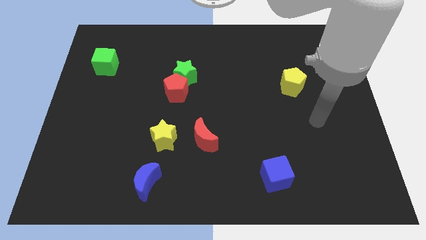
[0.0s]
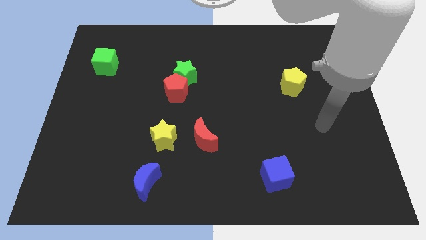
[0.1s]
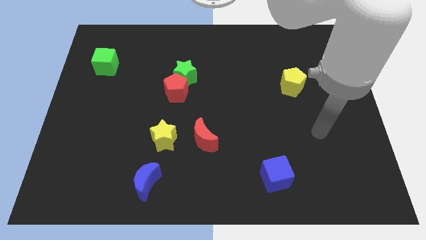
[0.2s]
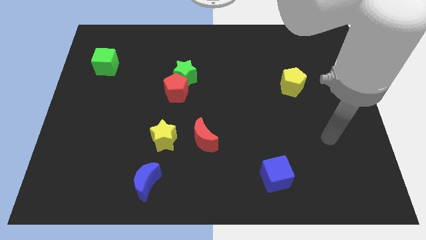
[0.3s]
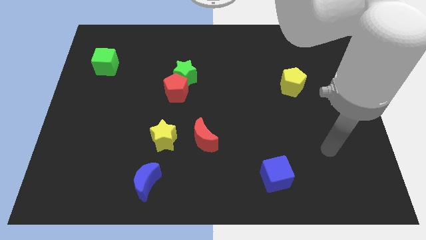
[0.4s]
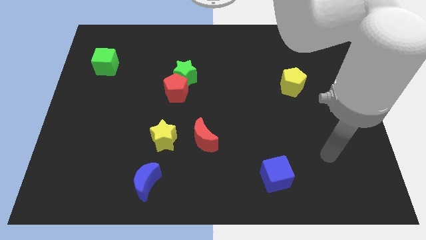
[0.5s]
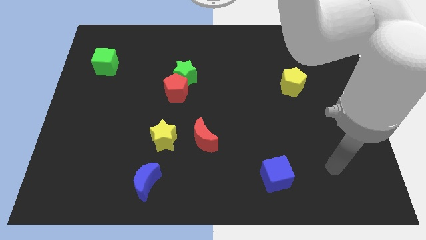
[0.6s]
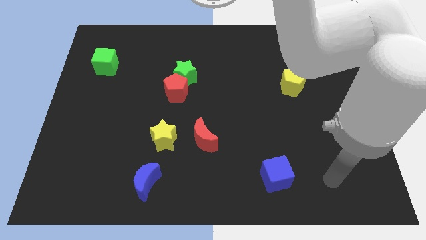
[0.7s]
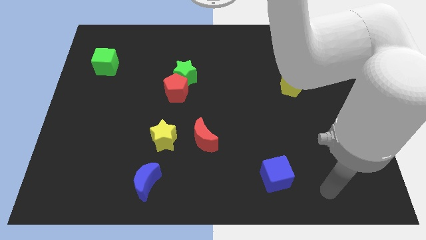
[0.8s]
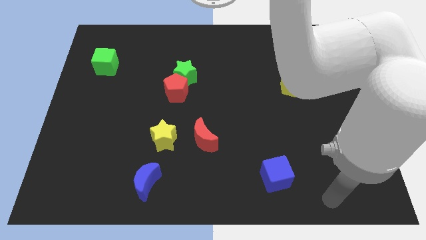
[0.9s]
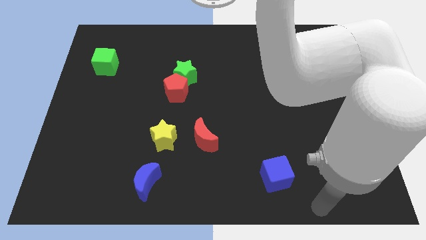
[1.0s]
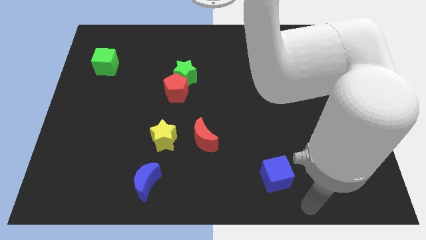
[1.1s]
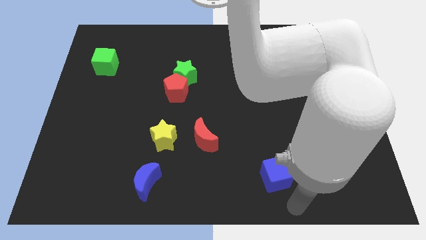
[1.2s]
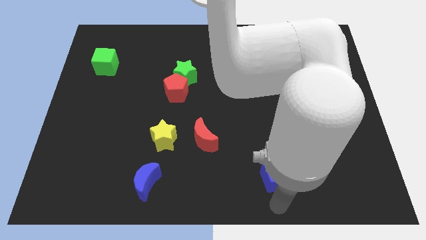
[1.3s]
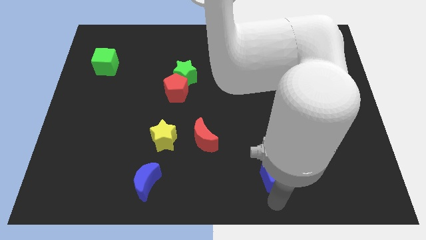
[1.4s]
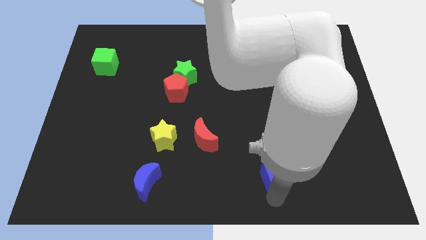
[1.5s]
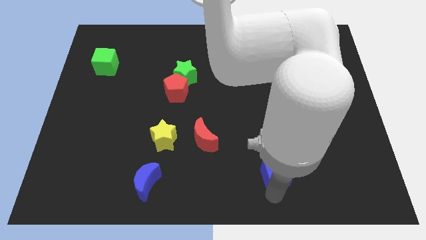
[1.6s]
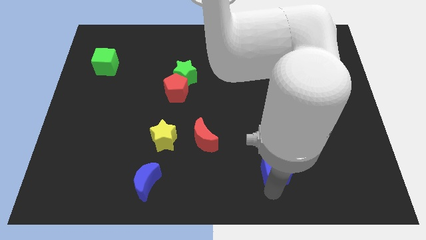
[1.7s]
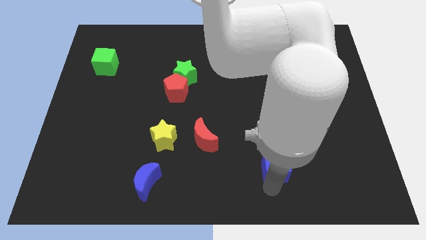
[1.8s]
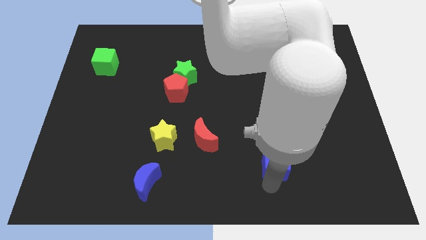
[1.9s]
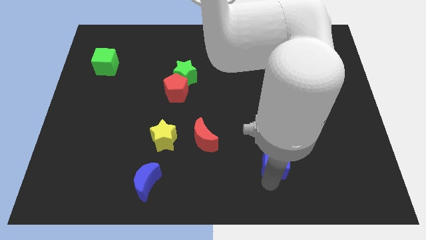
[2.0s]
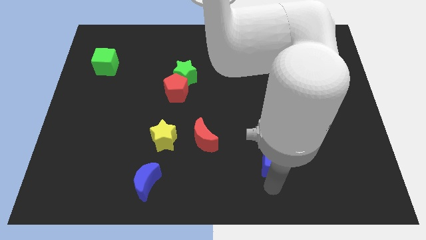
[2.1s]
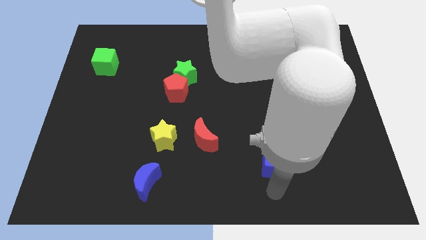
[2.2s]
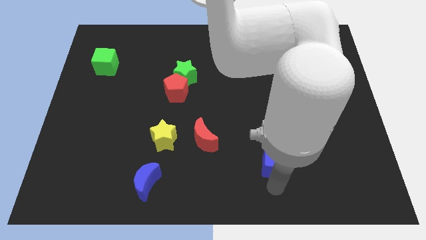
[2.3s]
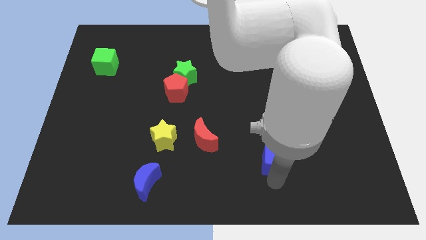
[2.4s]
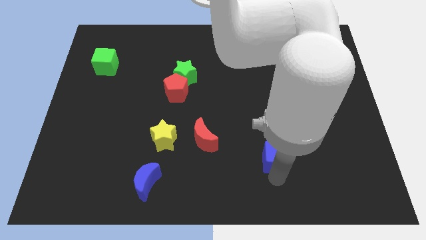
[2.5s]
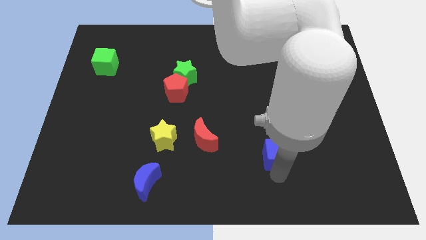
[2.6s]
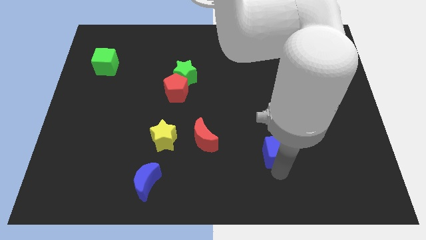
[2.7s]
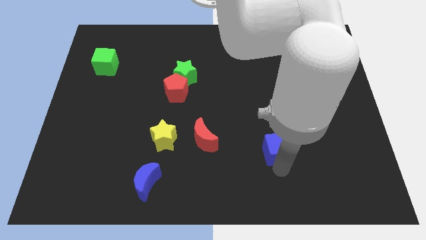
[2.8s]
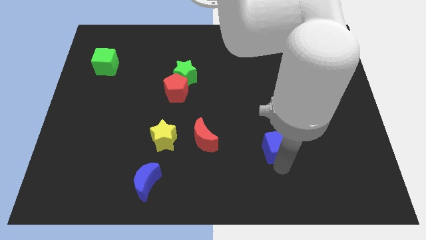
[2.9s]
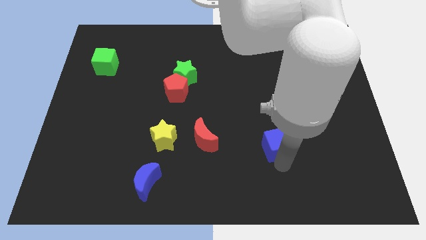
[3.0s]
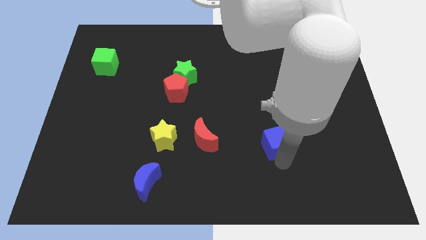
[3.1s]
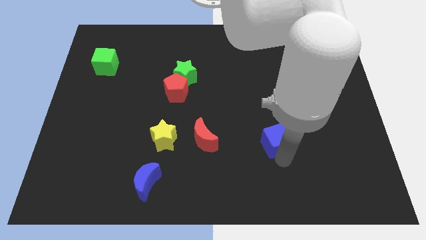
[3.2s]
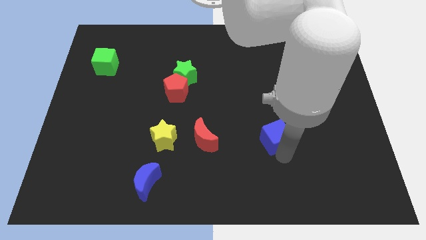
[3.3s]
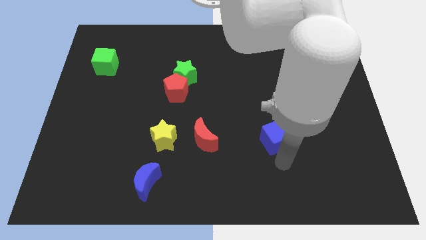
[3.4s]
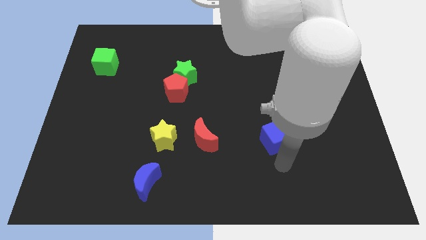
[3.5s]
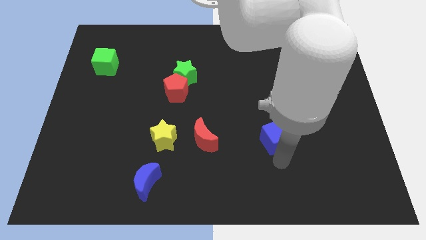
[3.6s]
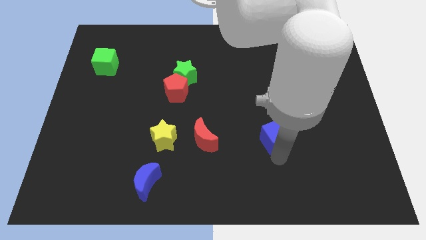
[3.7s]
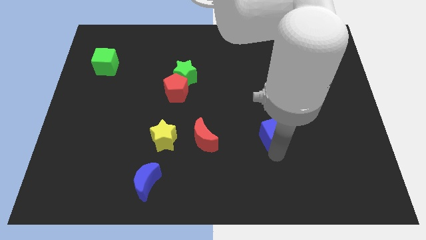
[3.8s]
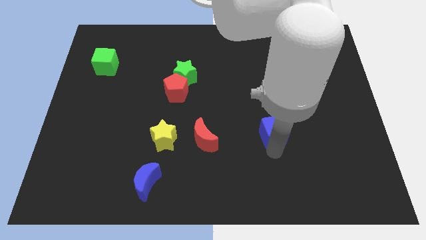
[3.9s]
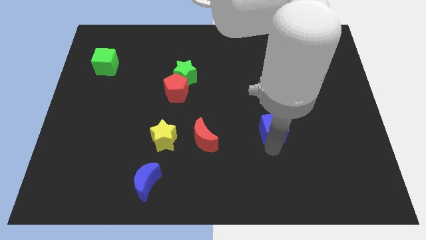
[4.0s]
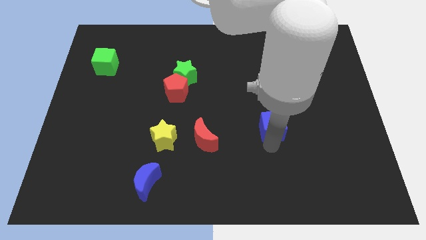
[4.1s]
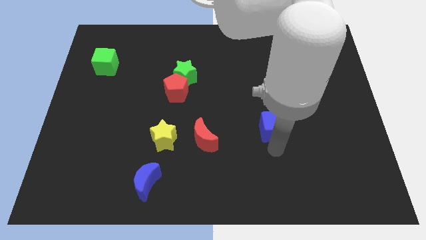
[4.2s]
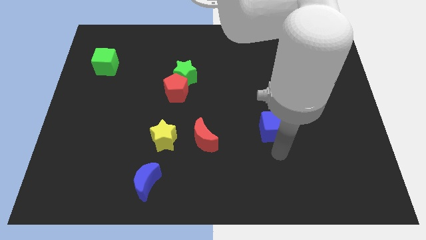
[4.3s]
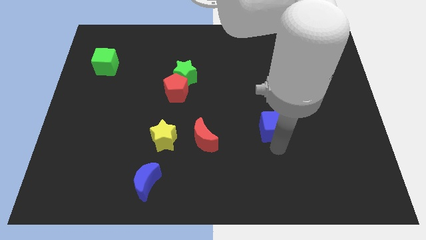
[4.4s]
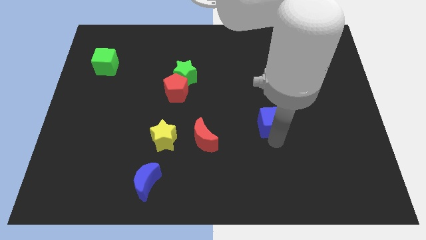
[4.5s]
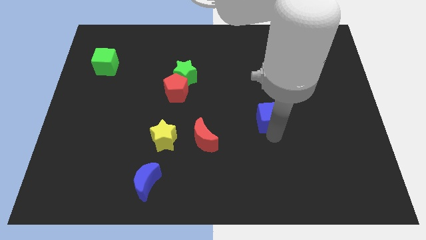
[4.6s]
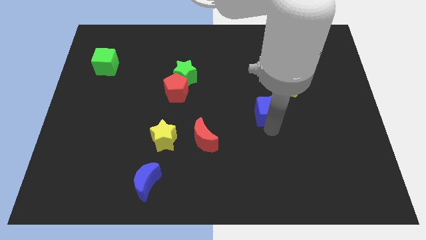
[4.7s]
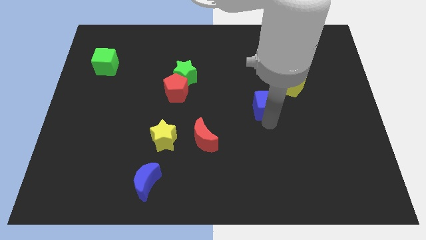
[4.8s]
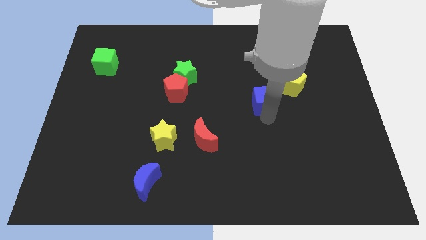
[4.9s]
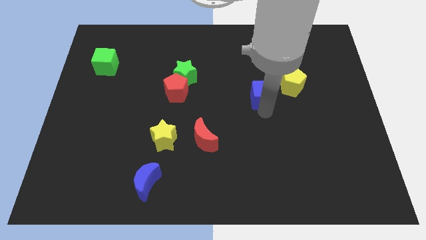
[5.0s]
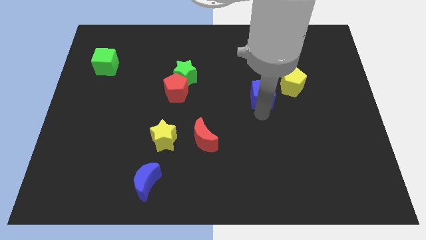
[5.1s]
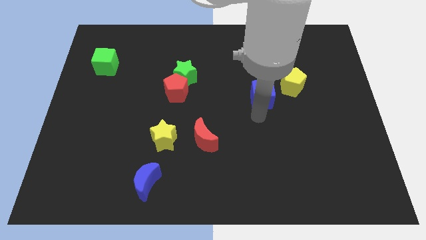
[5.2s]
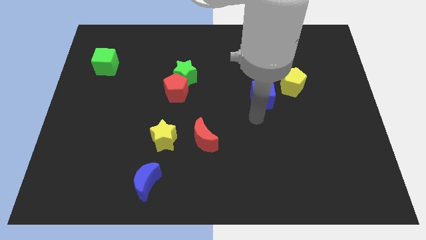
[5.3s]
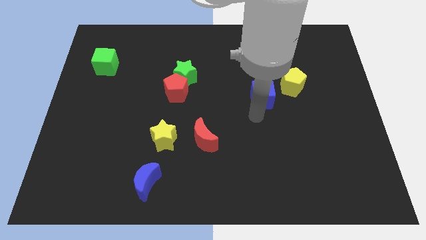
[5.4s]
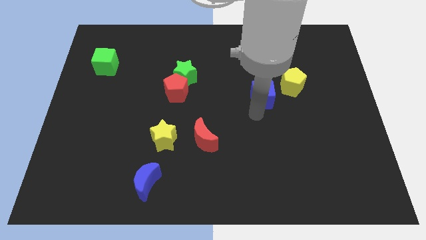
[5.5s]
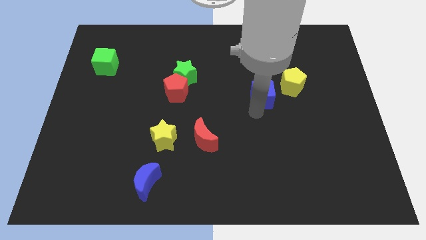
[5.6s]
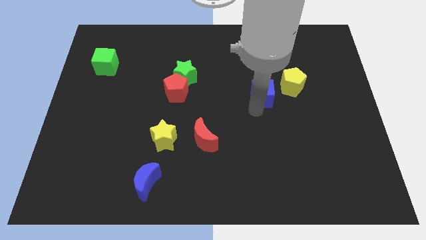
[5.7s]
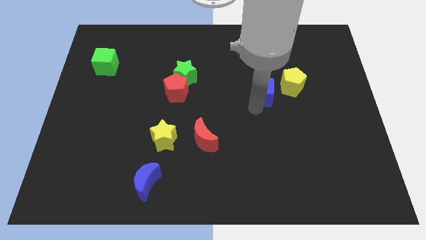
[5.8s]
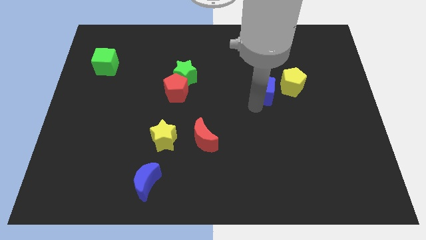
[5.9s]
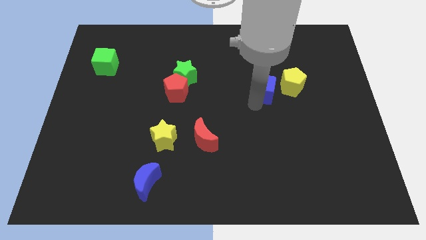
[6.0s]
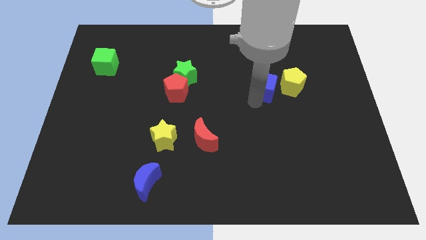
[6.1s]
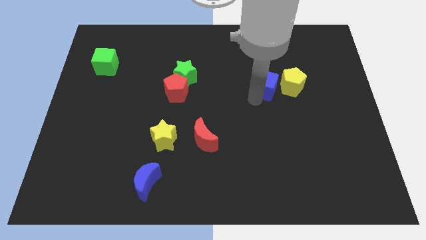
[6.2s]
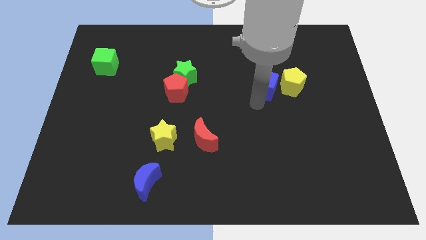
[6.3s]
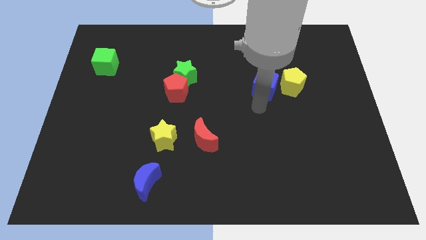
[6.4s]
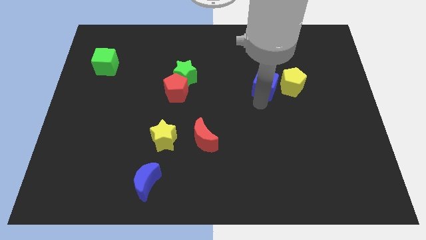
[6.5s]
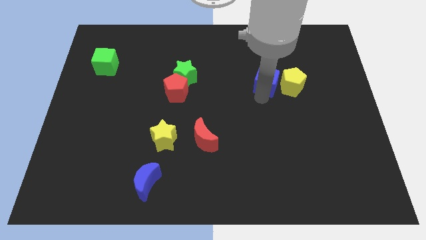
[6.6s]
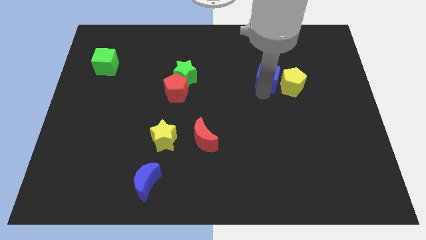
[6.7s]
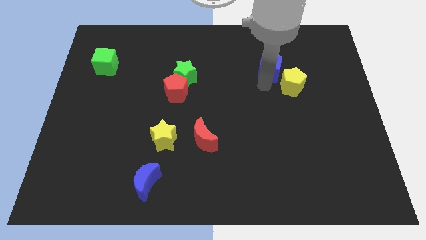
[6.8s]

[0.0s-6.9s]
push the blue cube to the top side of the yellow pentagon
